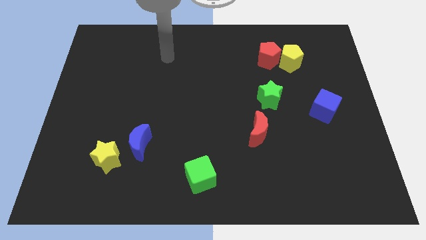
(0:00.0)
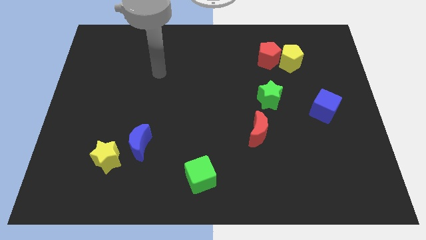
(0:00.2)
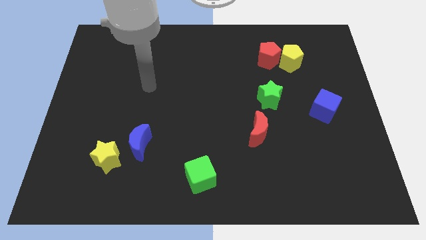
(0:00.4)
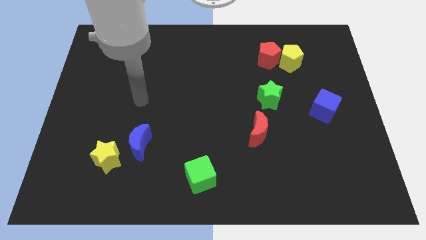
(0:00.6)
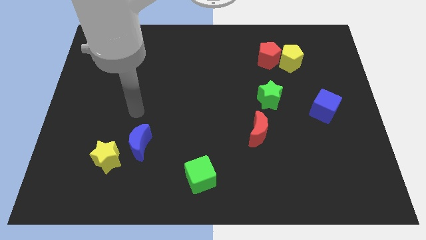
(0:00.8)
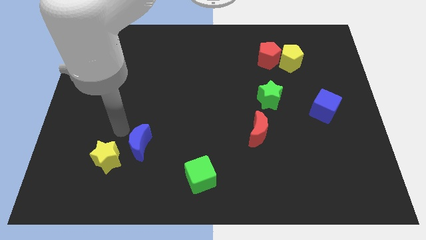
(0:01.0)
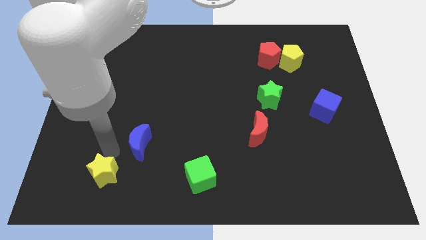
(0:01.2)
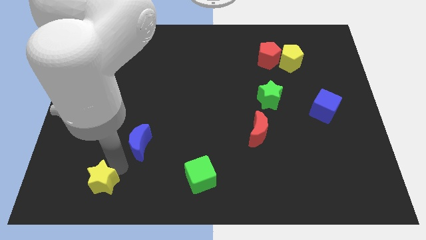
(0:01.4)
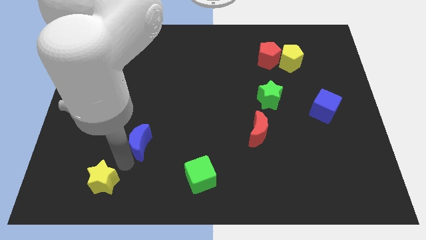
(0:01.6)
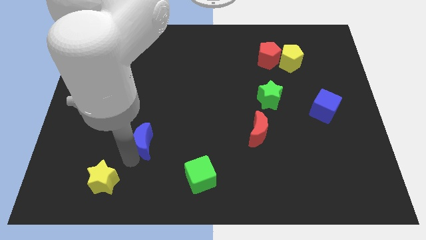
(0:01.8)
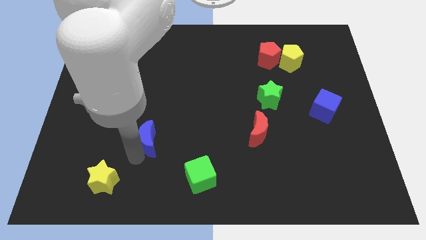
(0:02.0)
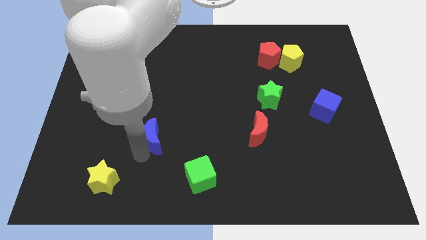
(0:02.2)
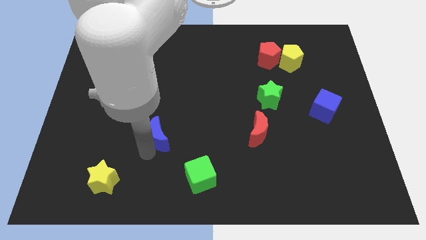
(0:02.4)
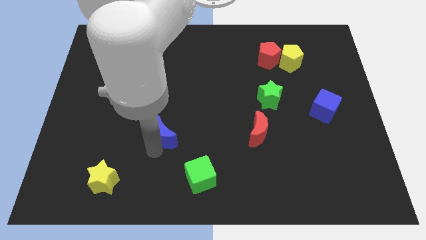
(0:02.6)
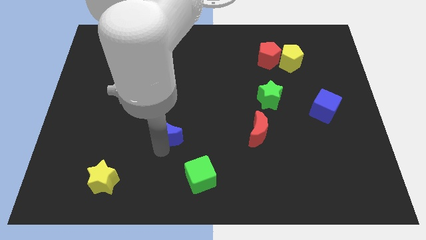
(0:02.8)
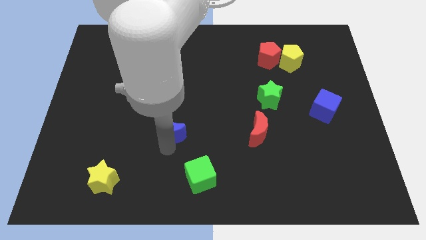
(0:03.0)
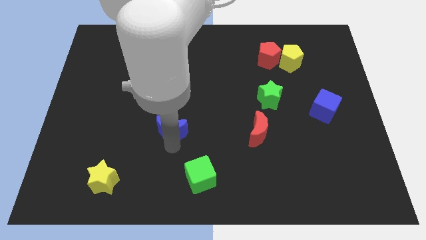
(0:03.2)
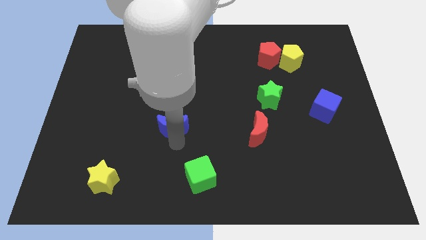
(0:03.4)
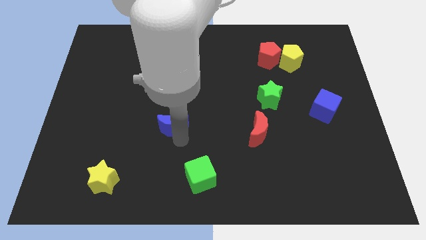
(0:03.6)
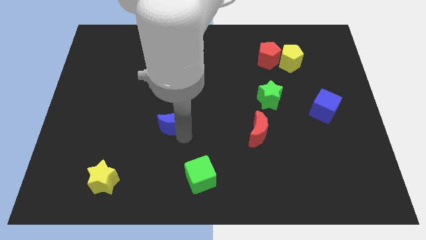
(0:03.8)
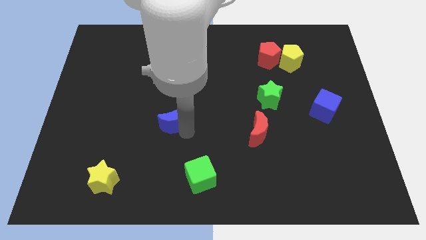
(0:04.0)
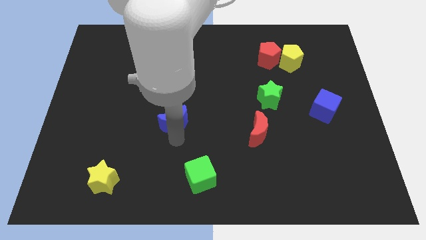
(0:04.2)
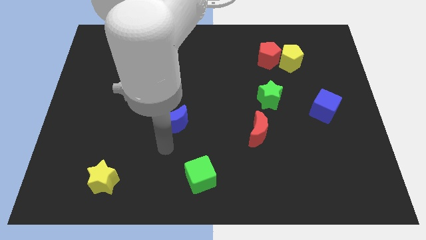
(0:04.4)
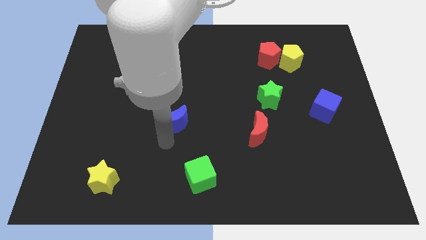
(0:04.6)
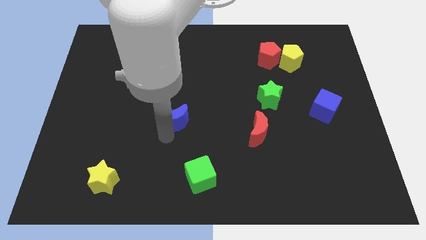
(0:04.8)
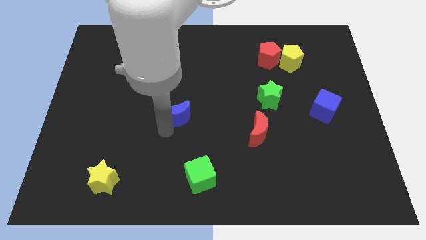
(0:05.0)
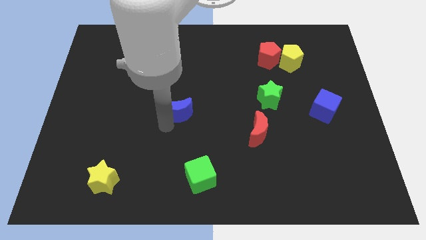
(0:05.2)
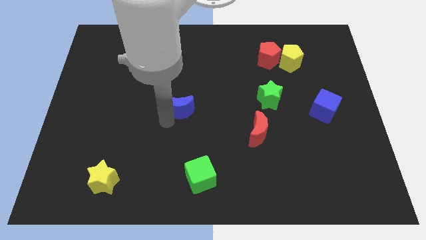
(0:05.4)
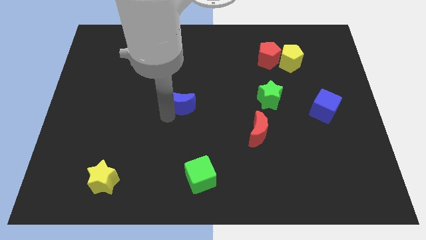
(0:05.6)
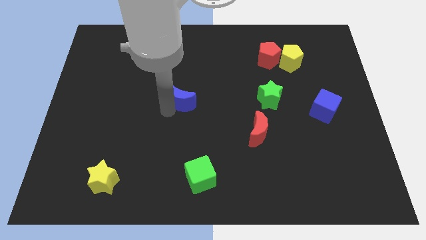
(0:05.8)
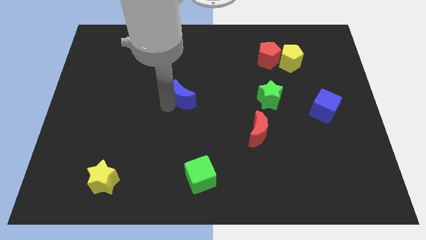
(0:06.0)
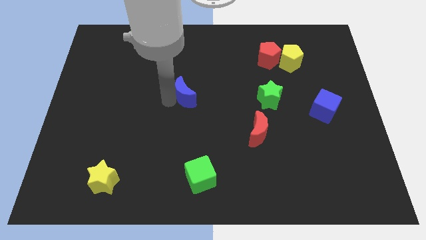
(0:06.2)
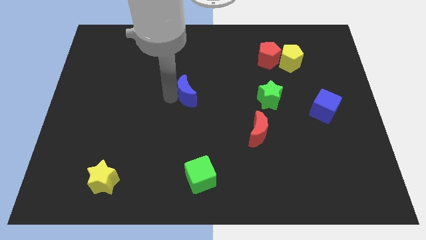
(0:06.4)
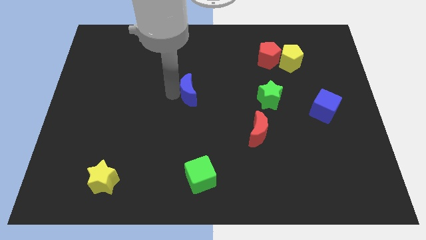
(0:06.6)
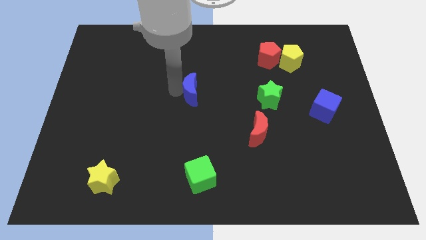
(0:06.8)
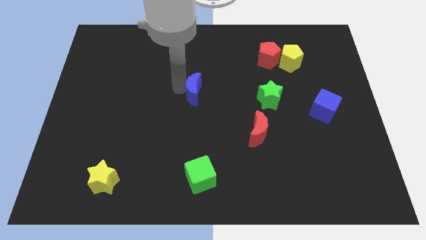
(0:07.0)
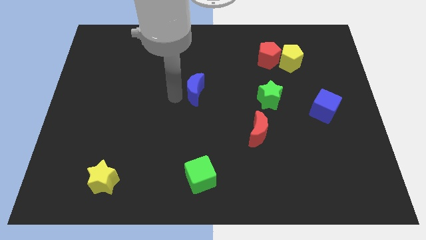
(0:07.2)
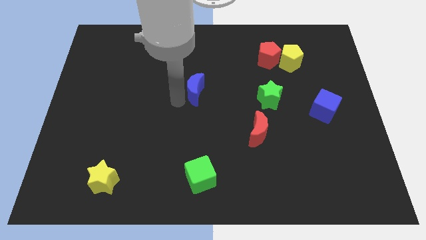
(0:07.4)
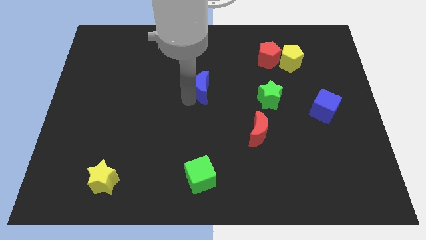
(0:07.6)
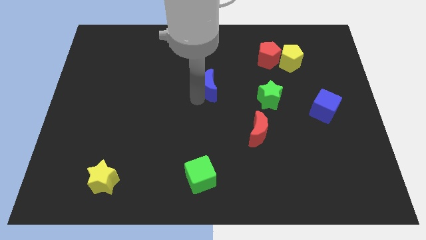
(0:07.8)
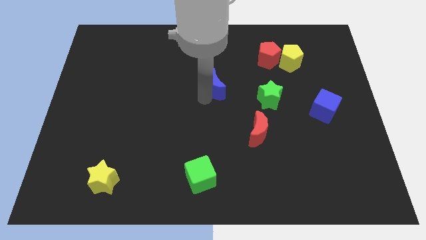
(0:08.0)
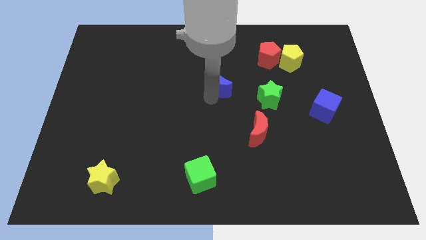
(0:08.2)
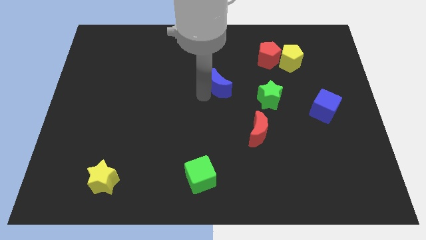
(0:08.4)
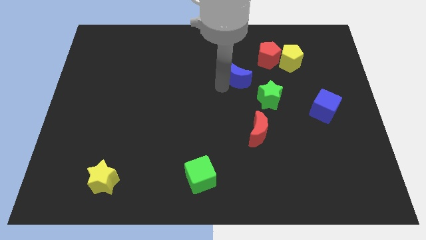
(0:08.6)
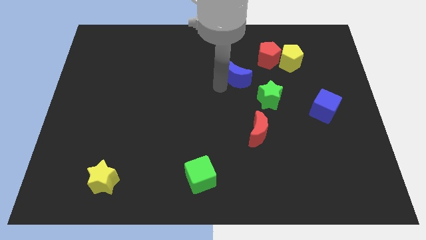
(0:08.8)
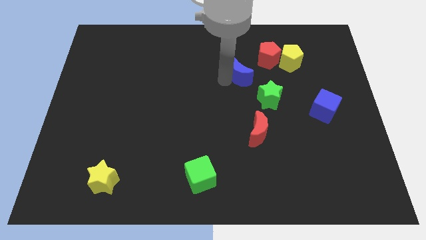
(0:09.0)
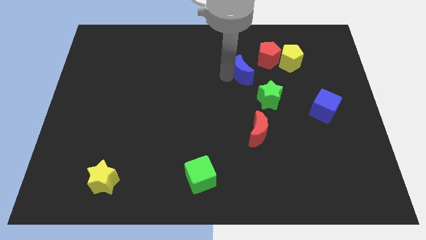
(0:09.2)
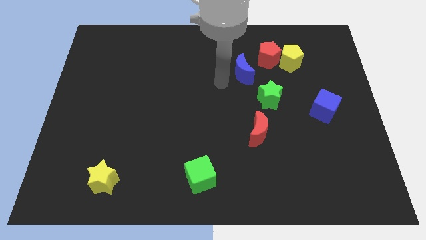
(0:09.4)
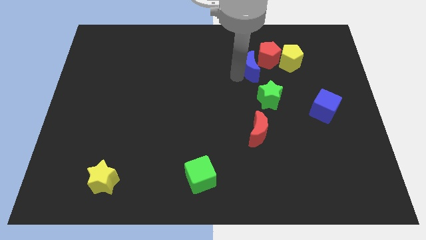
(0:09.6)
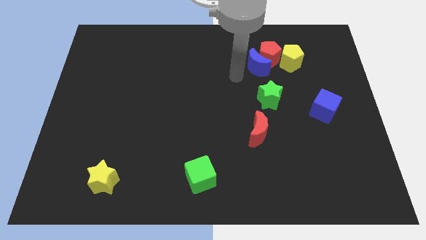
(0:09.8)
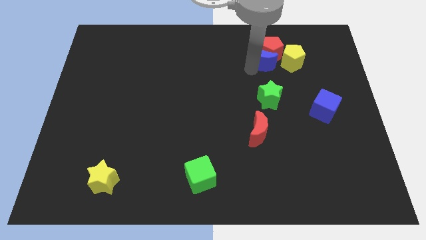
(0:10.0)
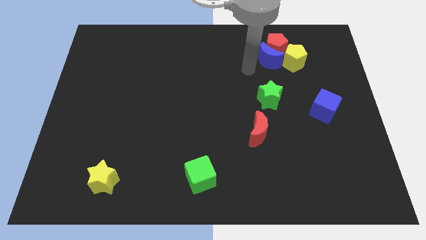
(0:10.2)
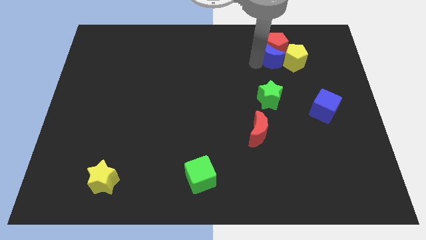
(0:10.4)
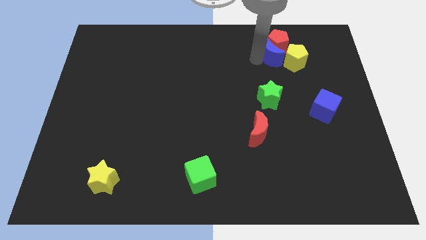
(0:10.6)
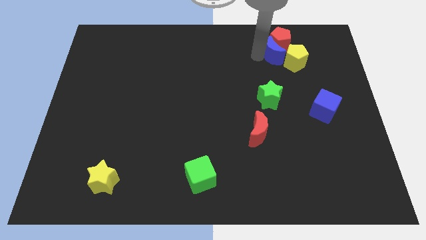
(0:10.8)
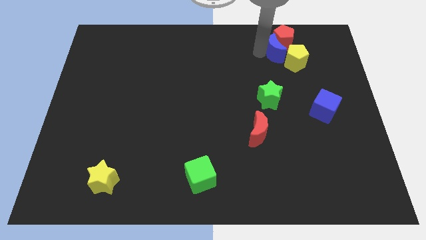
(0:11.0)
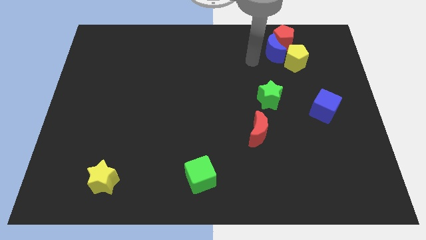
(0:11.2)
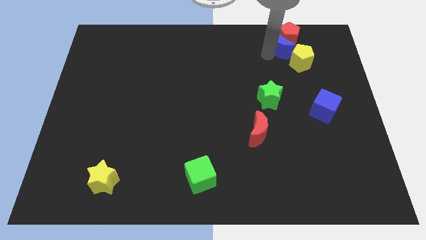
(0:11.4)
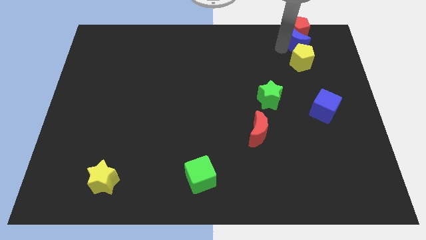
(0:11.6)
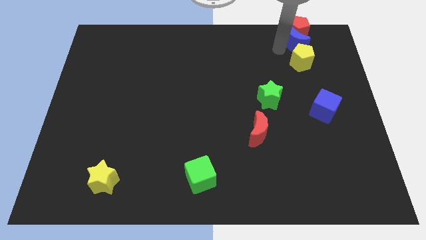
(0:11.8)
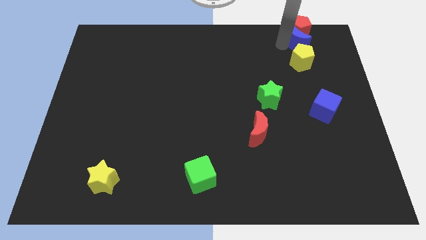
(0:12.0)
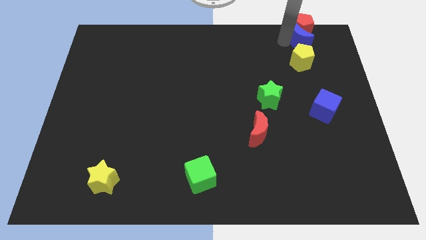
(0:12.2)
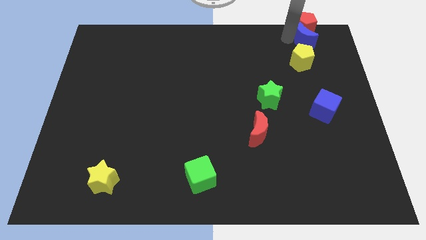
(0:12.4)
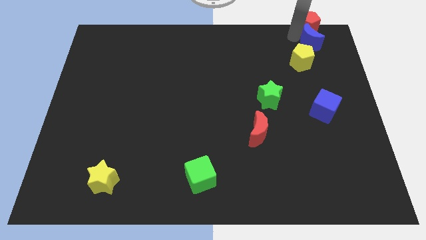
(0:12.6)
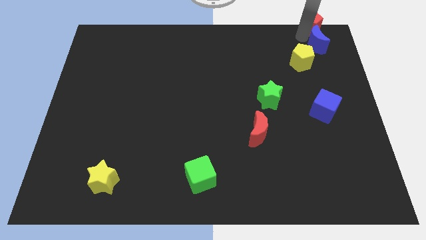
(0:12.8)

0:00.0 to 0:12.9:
move the blue moon to the top right corner
